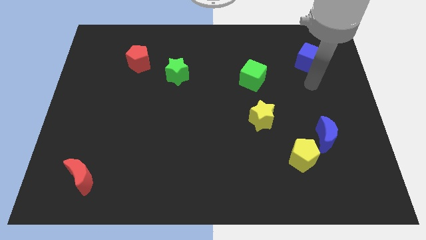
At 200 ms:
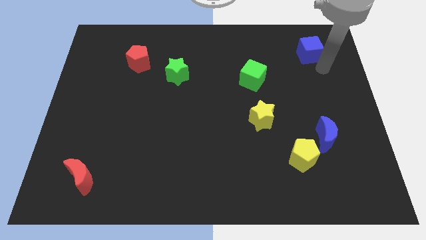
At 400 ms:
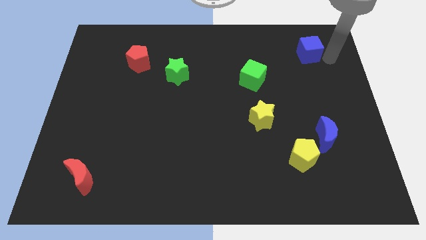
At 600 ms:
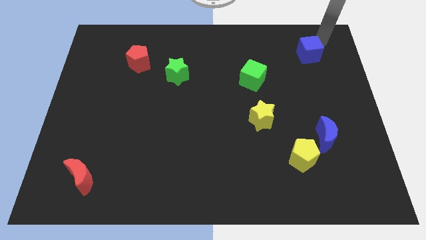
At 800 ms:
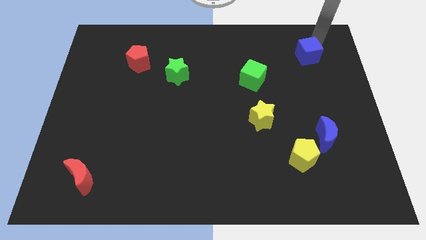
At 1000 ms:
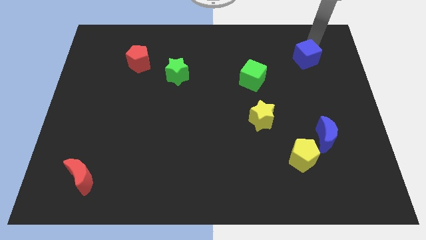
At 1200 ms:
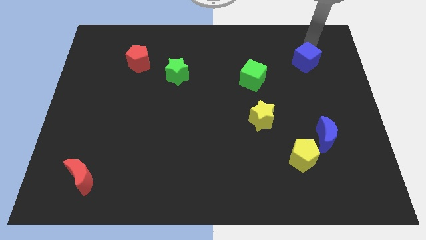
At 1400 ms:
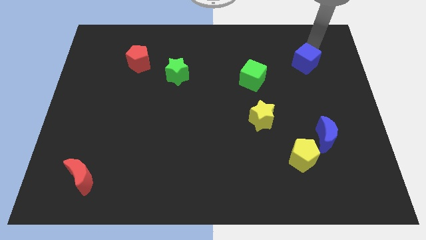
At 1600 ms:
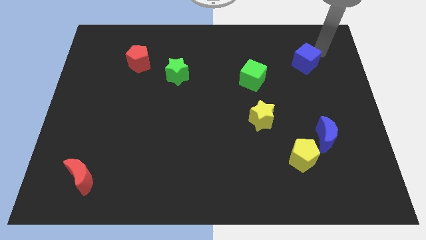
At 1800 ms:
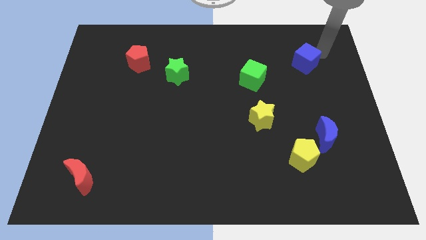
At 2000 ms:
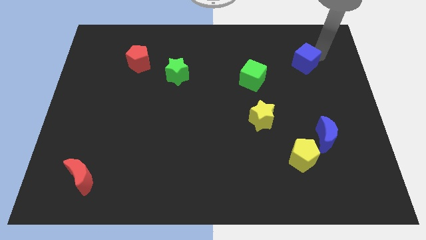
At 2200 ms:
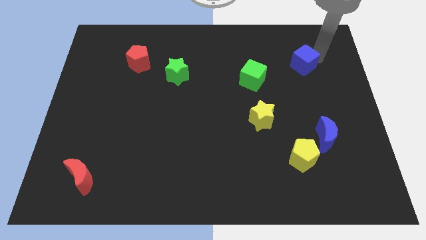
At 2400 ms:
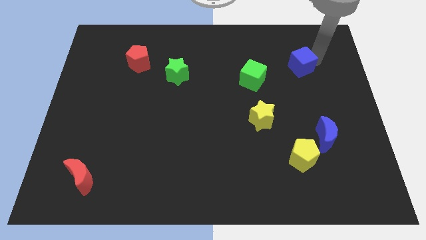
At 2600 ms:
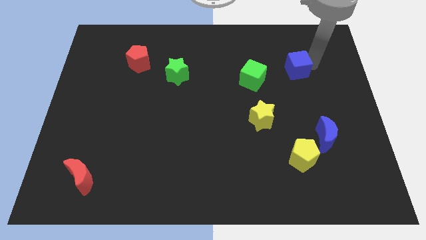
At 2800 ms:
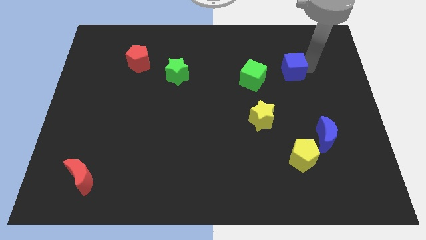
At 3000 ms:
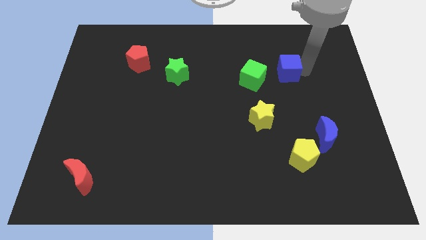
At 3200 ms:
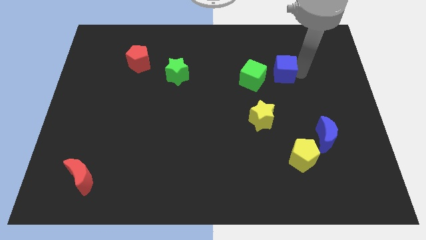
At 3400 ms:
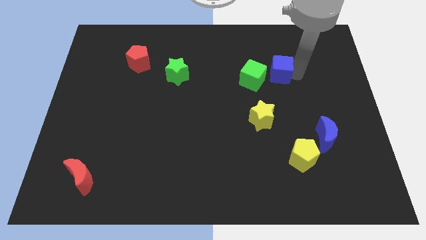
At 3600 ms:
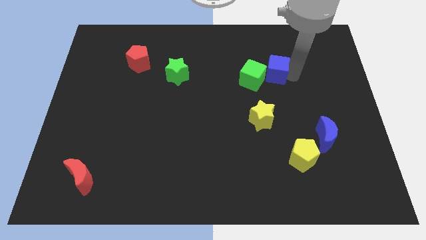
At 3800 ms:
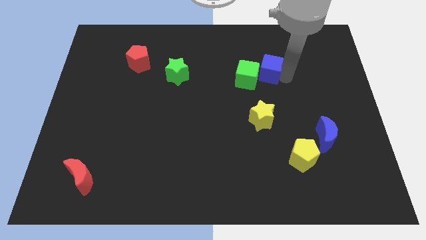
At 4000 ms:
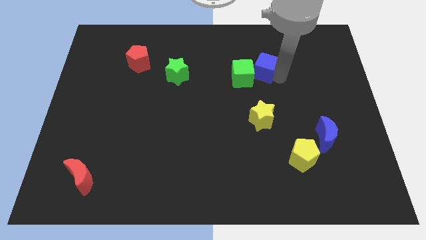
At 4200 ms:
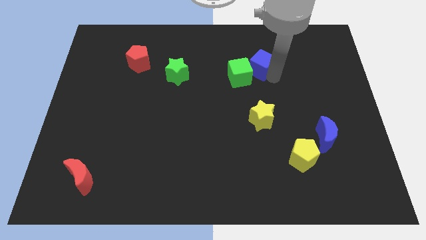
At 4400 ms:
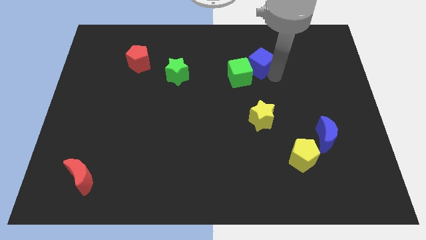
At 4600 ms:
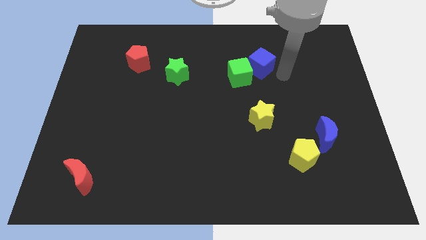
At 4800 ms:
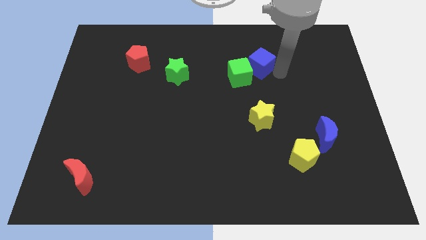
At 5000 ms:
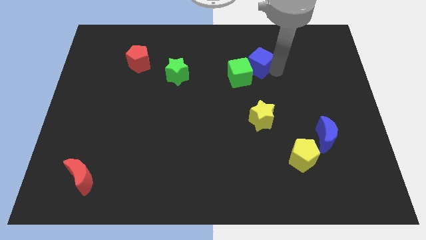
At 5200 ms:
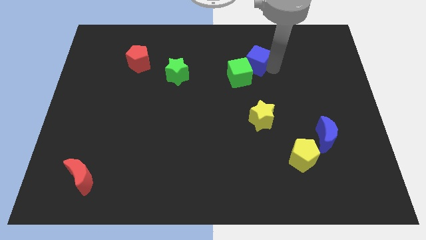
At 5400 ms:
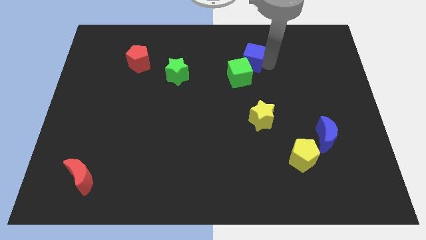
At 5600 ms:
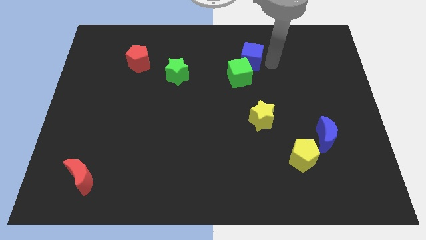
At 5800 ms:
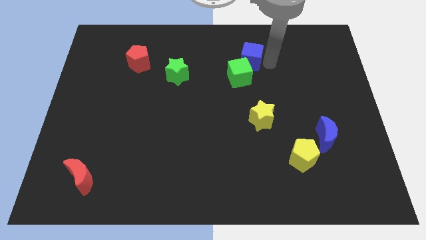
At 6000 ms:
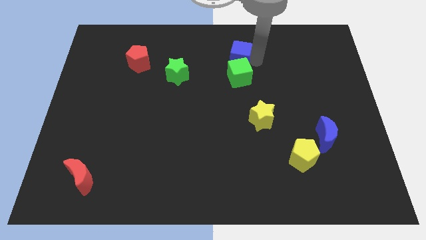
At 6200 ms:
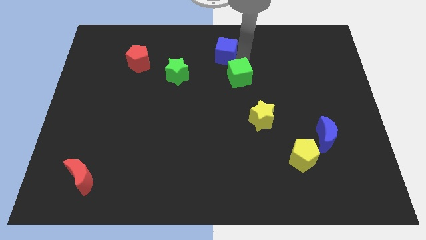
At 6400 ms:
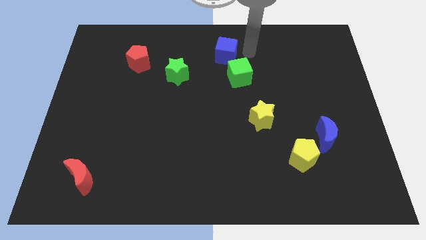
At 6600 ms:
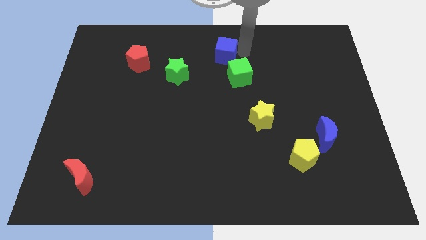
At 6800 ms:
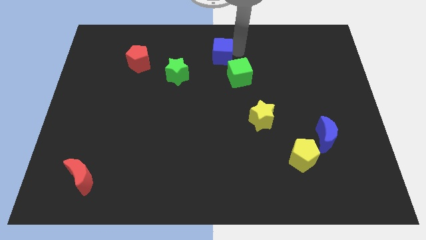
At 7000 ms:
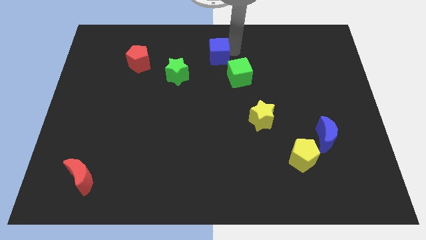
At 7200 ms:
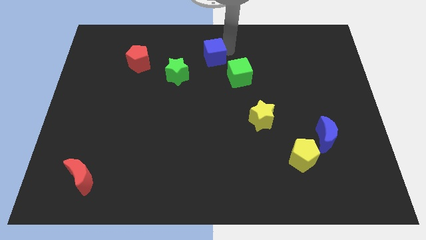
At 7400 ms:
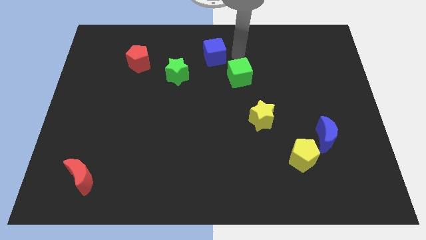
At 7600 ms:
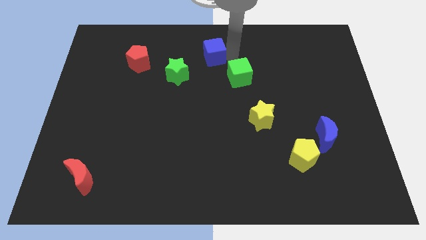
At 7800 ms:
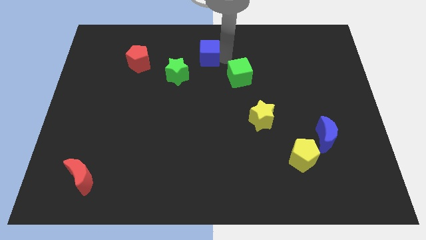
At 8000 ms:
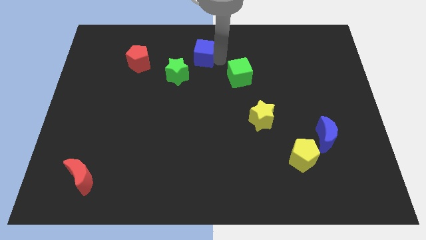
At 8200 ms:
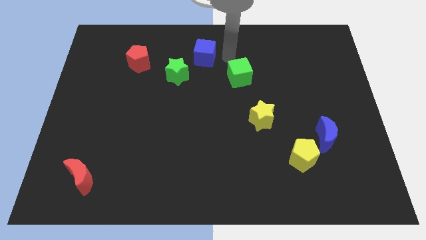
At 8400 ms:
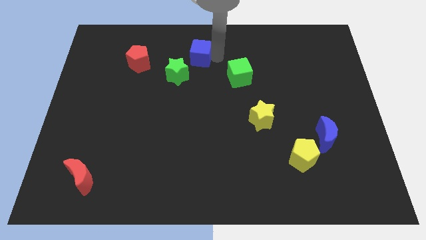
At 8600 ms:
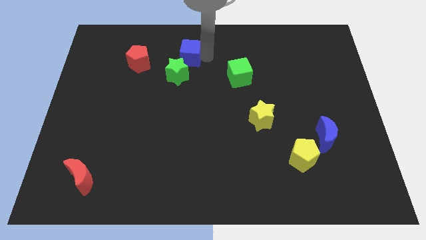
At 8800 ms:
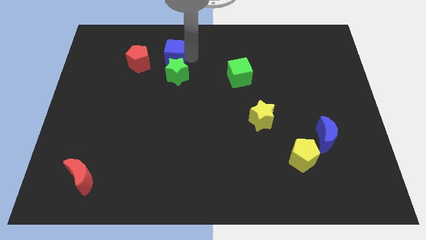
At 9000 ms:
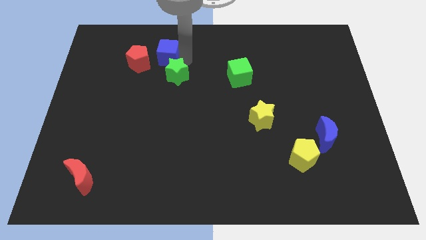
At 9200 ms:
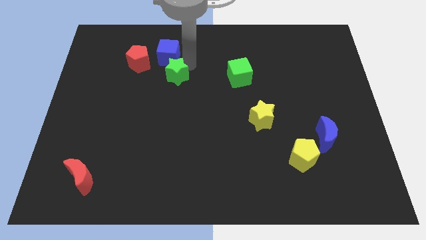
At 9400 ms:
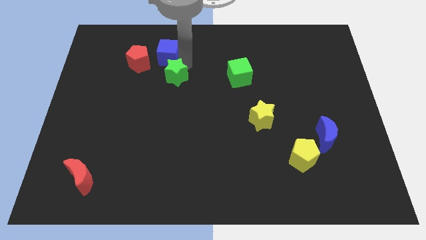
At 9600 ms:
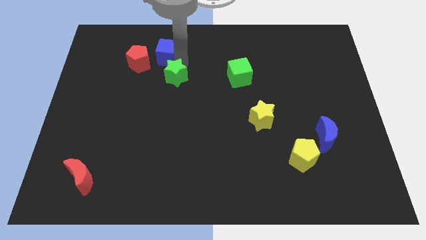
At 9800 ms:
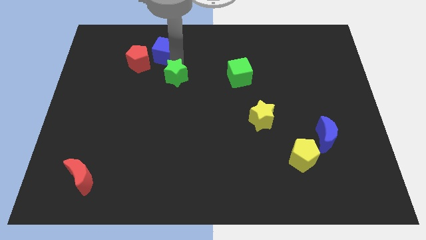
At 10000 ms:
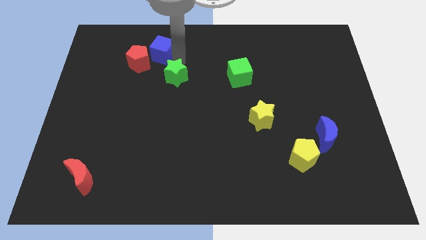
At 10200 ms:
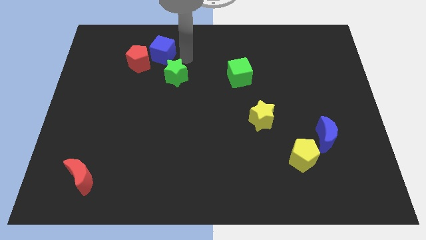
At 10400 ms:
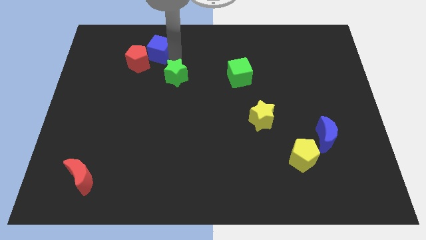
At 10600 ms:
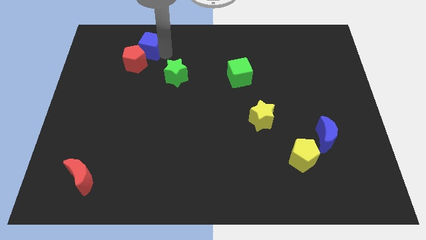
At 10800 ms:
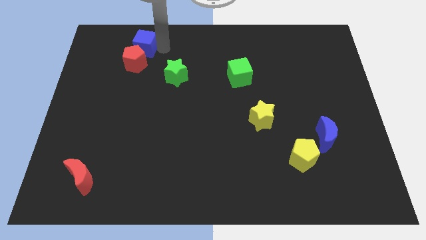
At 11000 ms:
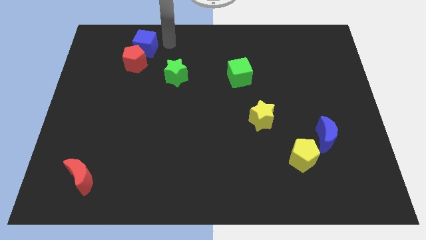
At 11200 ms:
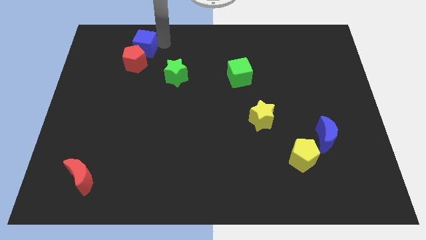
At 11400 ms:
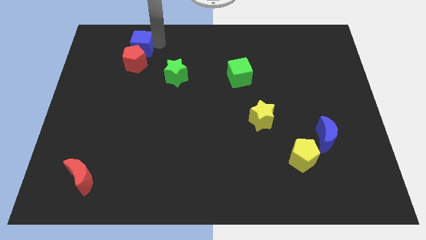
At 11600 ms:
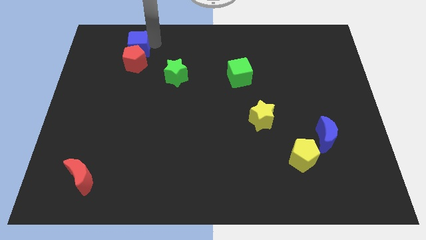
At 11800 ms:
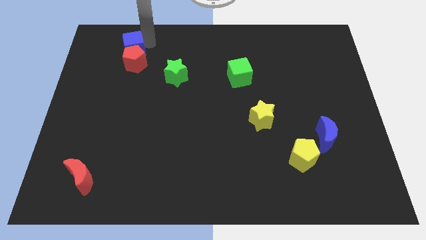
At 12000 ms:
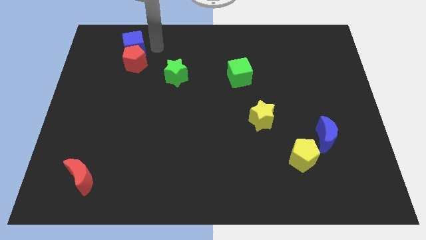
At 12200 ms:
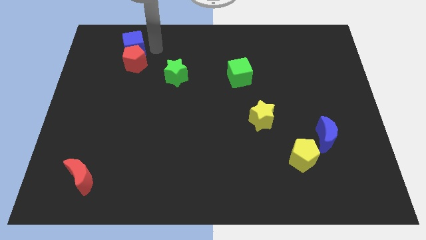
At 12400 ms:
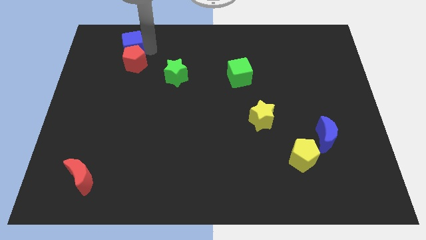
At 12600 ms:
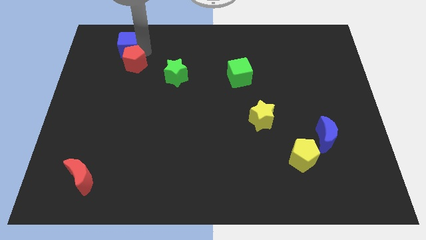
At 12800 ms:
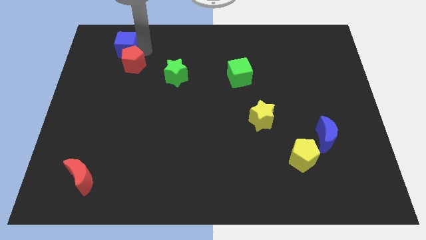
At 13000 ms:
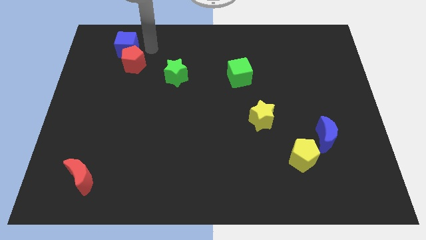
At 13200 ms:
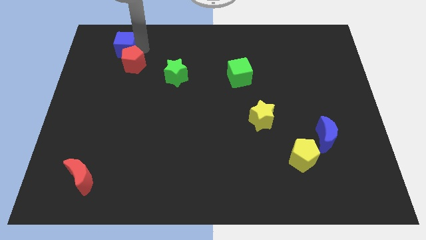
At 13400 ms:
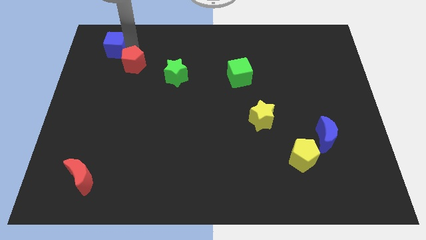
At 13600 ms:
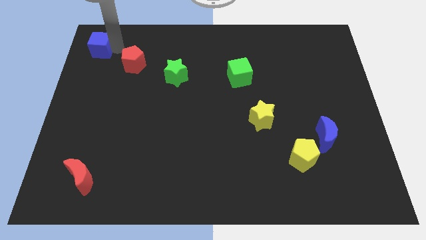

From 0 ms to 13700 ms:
put the blue cube to the top left of the board
